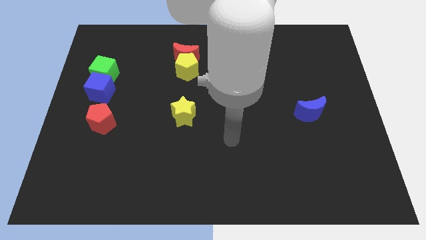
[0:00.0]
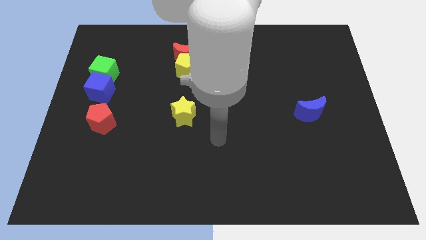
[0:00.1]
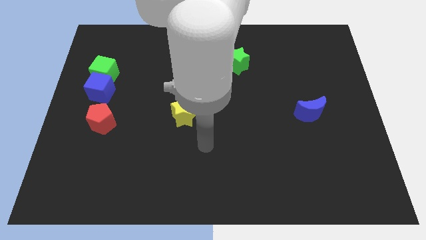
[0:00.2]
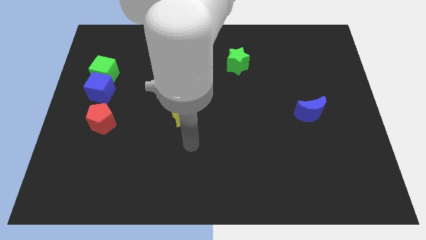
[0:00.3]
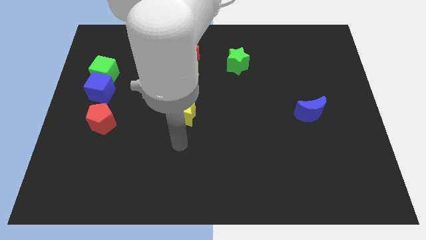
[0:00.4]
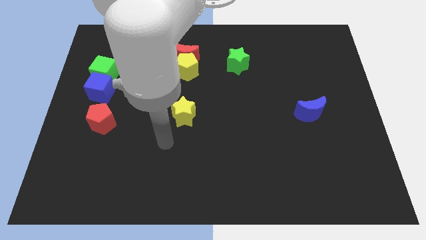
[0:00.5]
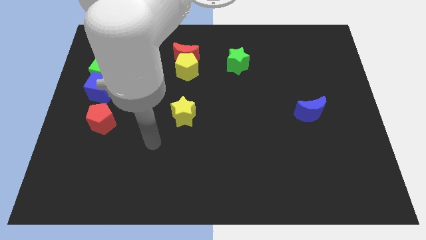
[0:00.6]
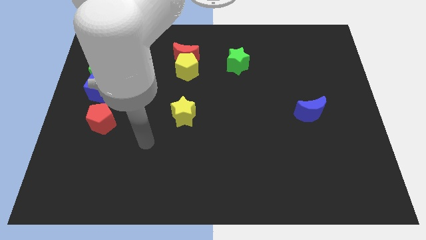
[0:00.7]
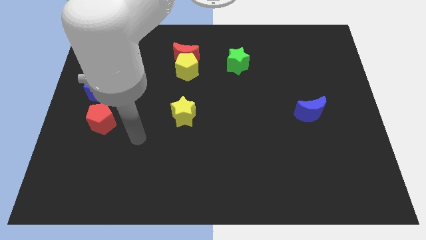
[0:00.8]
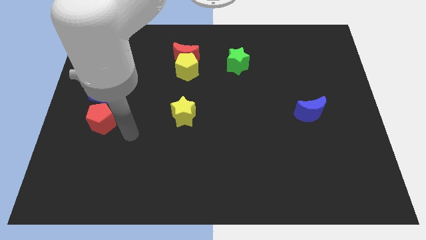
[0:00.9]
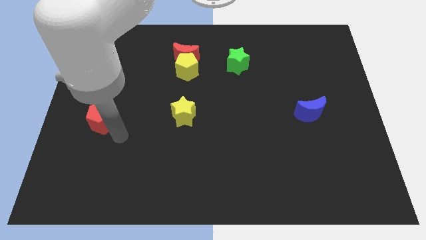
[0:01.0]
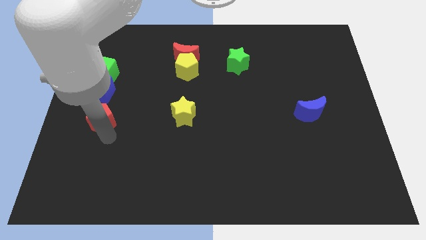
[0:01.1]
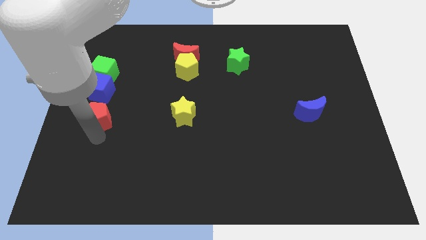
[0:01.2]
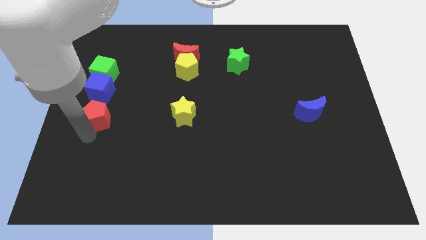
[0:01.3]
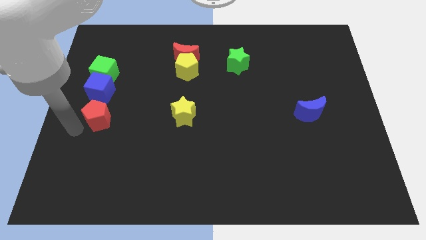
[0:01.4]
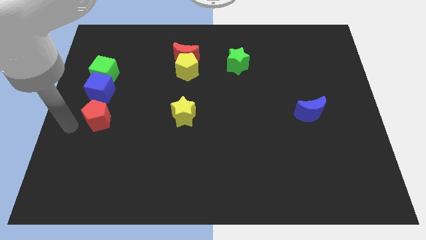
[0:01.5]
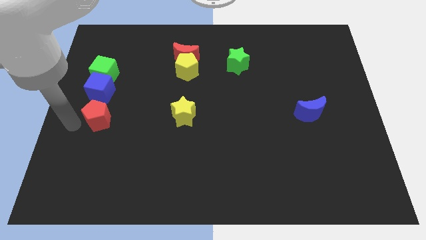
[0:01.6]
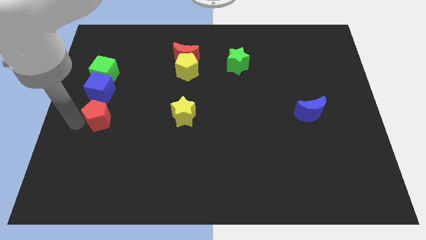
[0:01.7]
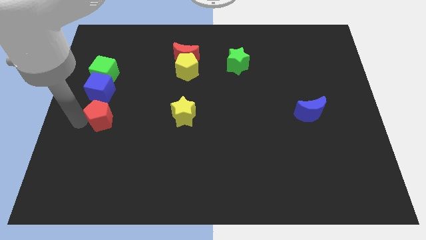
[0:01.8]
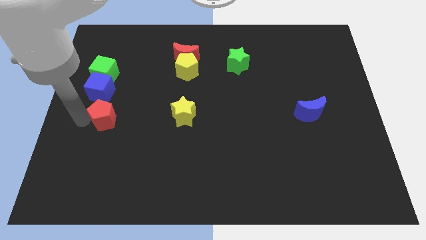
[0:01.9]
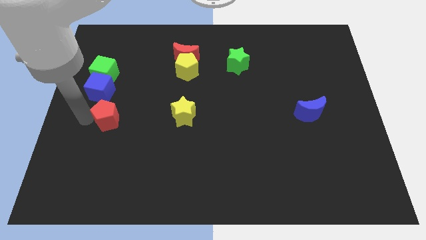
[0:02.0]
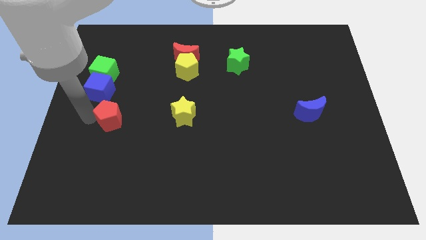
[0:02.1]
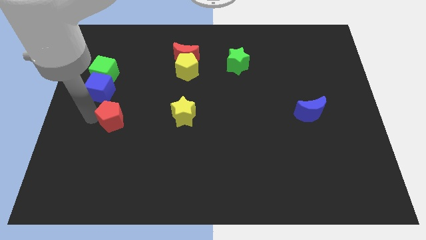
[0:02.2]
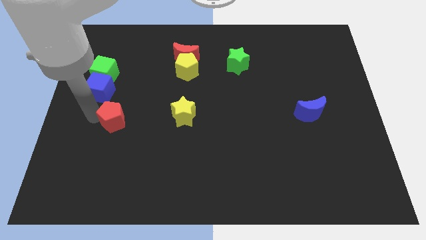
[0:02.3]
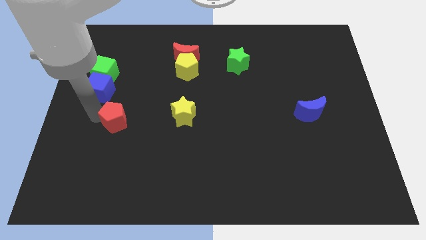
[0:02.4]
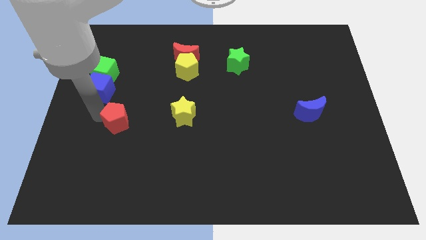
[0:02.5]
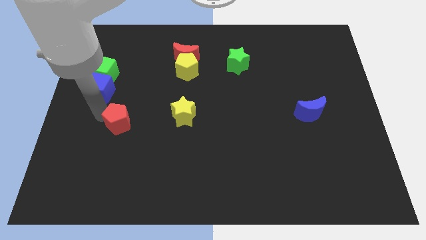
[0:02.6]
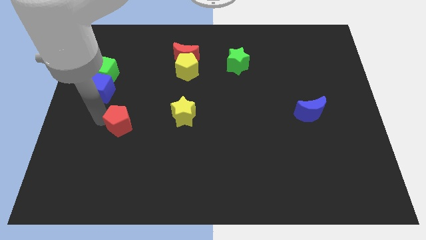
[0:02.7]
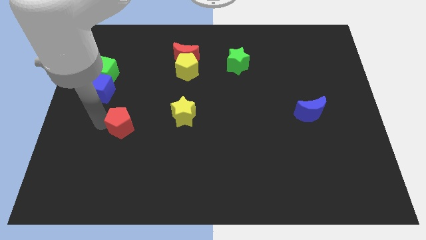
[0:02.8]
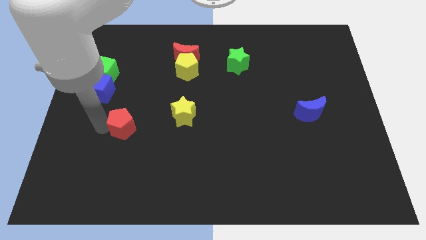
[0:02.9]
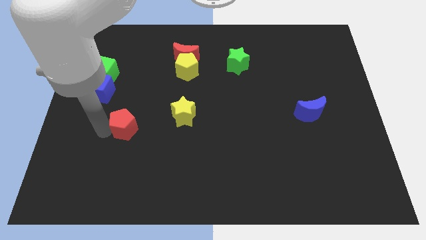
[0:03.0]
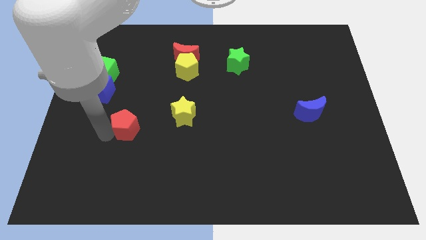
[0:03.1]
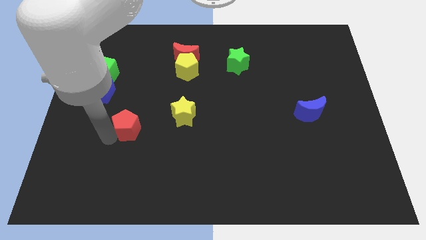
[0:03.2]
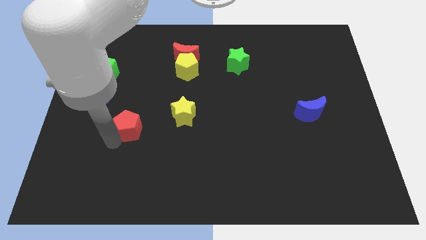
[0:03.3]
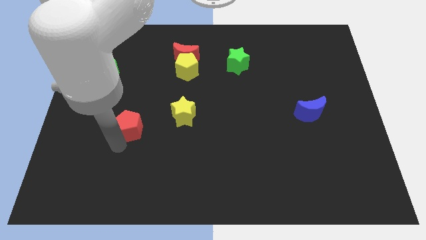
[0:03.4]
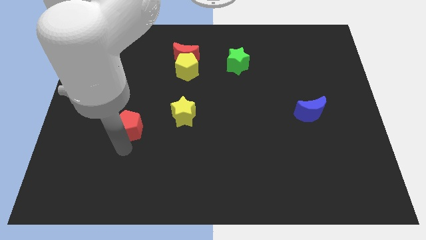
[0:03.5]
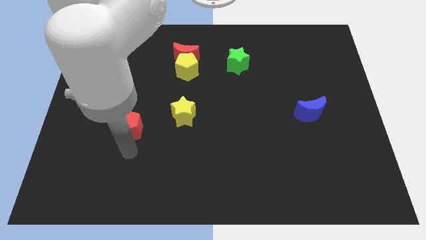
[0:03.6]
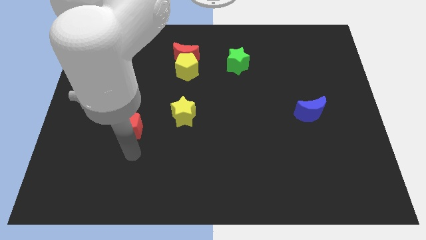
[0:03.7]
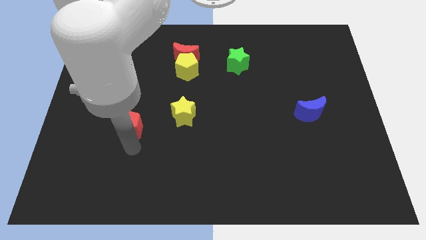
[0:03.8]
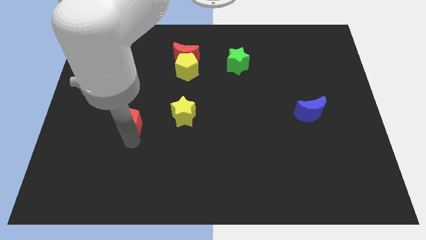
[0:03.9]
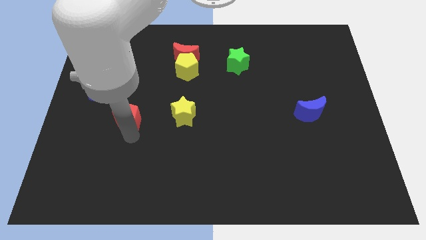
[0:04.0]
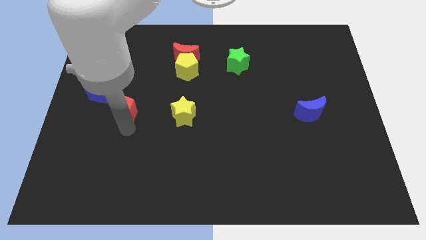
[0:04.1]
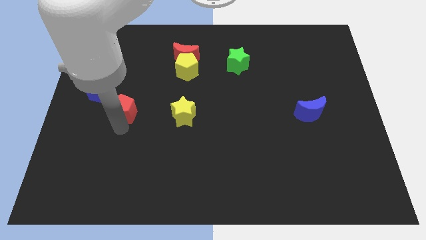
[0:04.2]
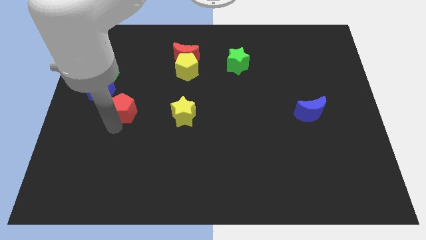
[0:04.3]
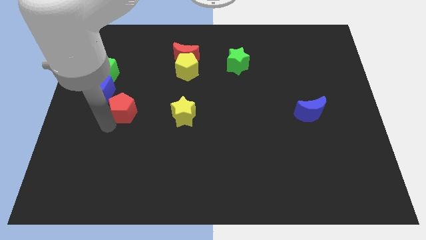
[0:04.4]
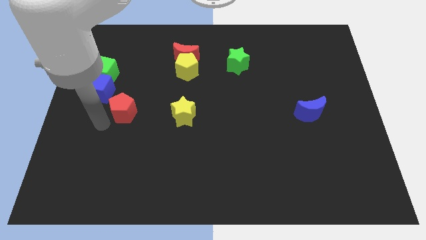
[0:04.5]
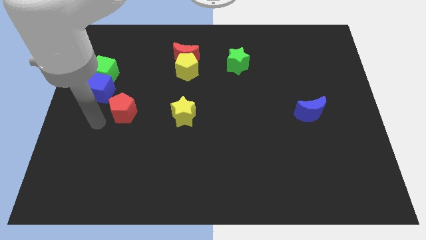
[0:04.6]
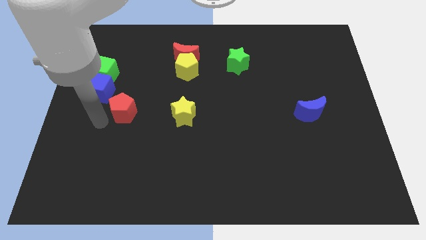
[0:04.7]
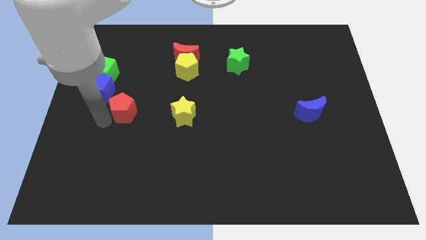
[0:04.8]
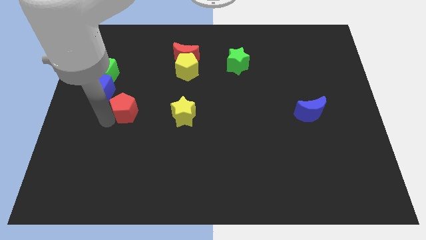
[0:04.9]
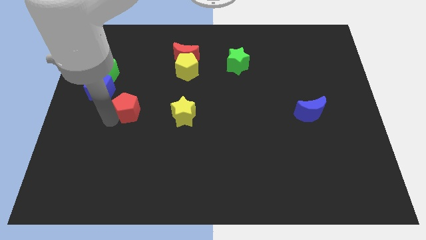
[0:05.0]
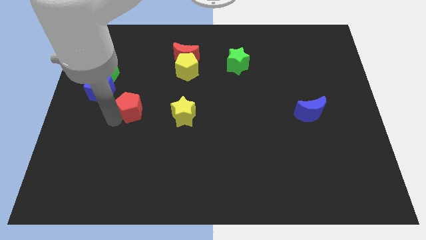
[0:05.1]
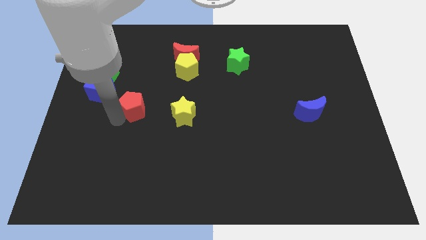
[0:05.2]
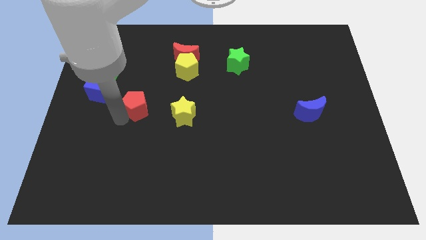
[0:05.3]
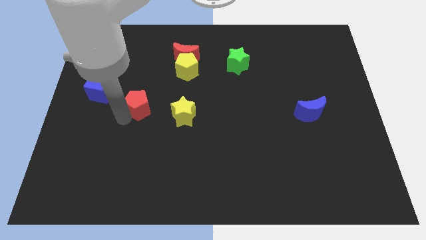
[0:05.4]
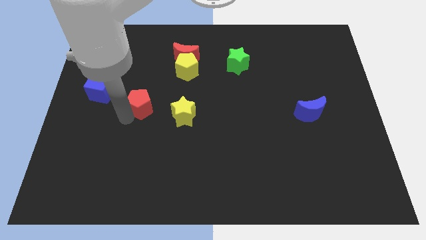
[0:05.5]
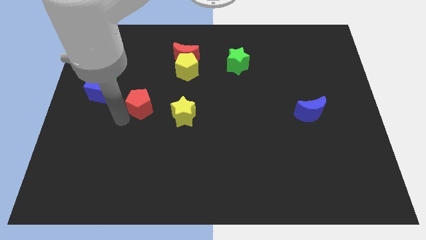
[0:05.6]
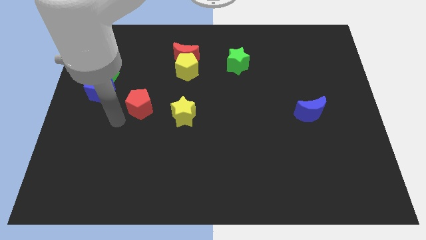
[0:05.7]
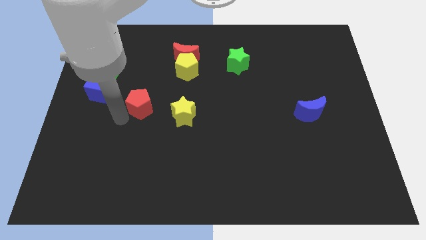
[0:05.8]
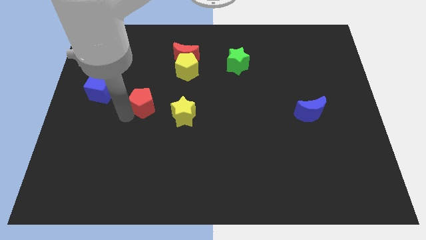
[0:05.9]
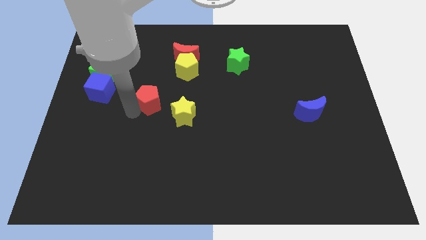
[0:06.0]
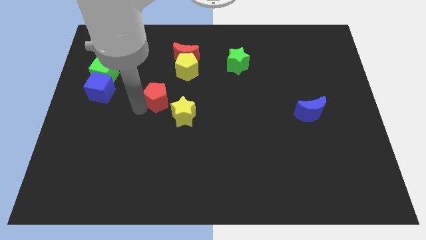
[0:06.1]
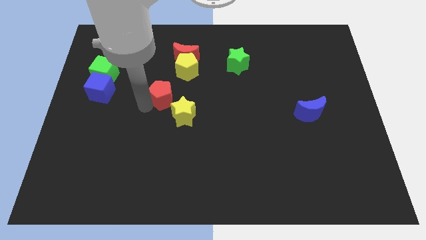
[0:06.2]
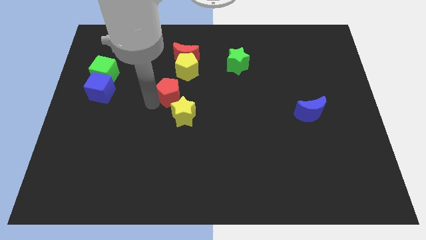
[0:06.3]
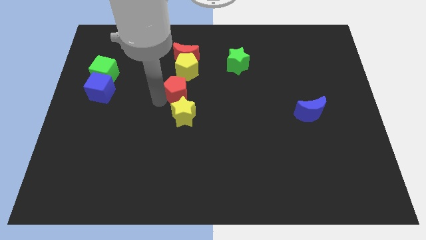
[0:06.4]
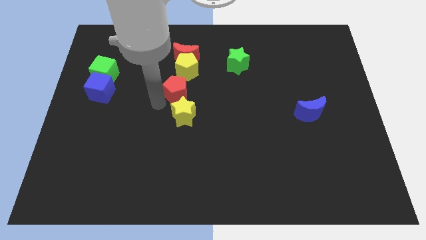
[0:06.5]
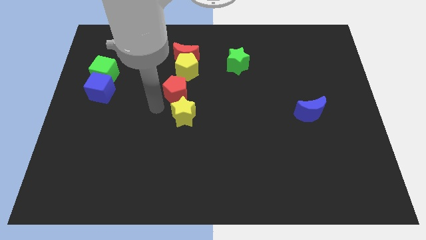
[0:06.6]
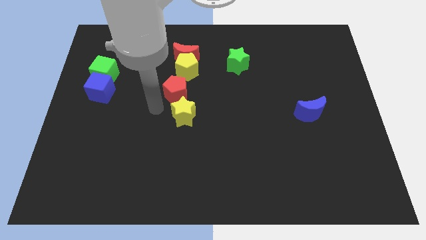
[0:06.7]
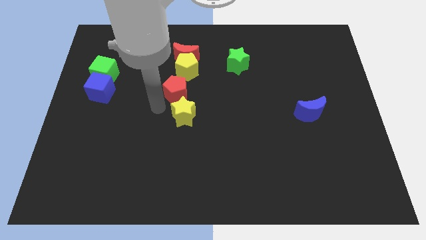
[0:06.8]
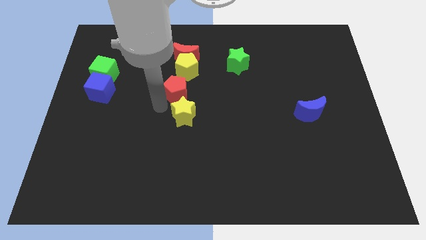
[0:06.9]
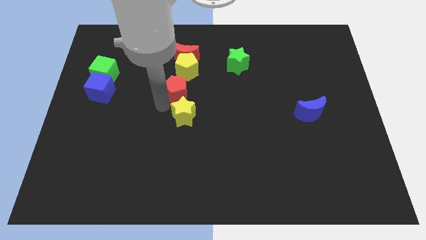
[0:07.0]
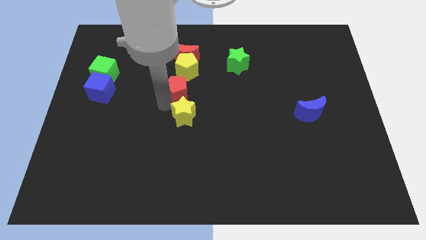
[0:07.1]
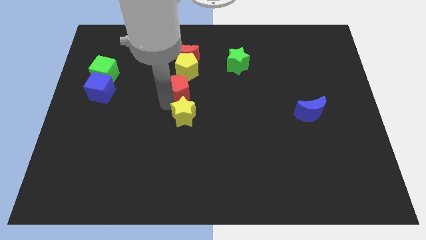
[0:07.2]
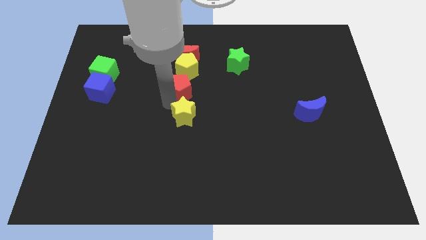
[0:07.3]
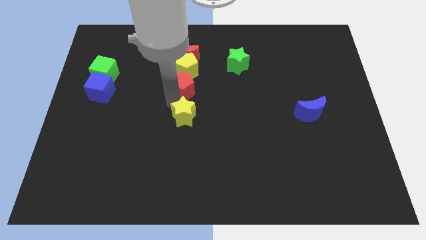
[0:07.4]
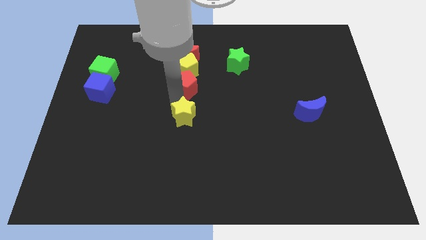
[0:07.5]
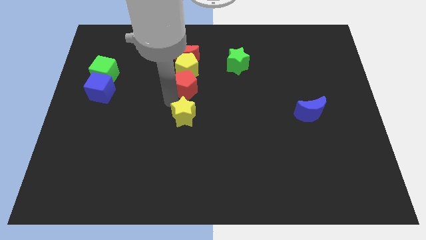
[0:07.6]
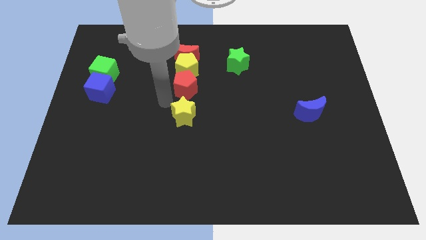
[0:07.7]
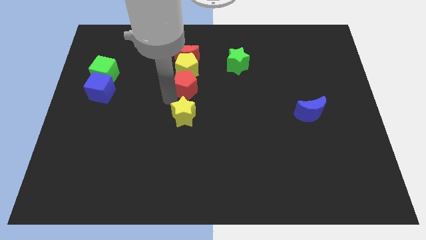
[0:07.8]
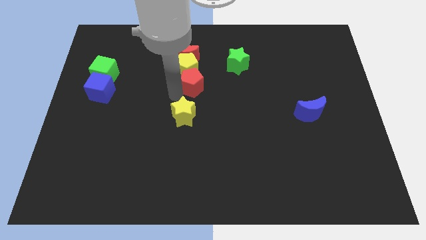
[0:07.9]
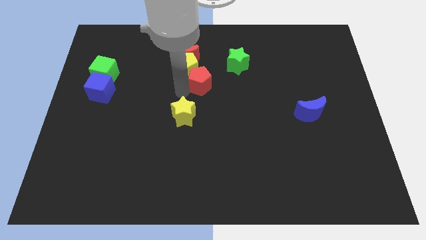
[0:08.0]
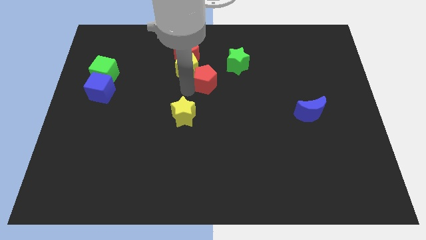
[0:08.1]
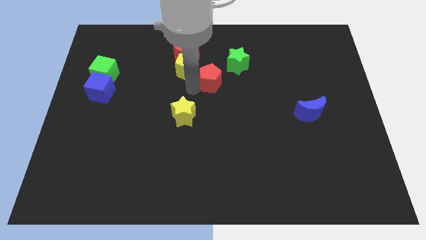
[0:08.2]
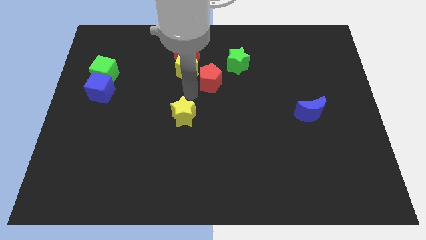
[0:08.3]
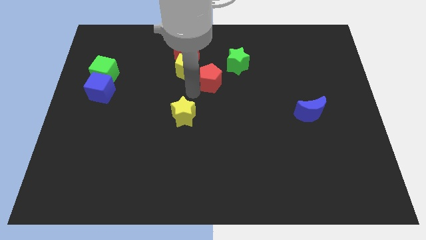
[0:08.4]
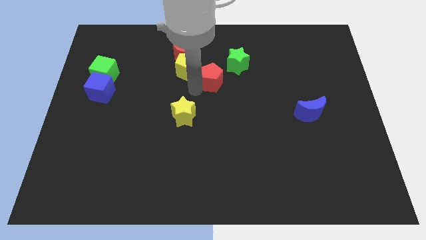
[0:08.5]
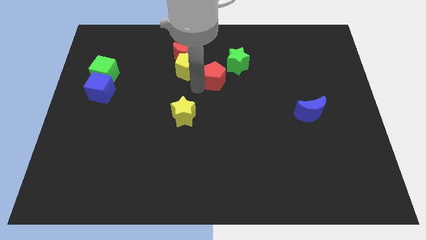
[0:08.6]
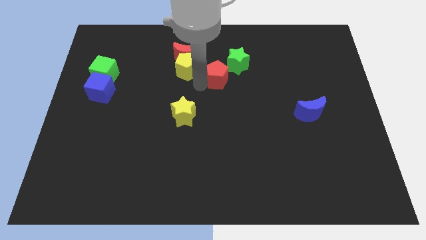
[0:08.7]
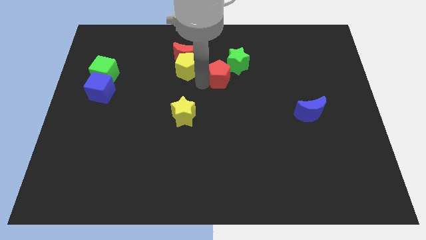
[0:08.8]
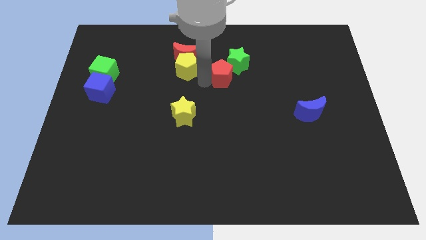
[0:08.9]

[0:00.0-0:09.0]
push the red pentagon close to the green star
